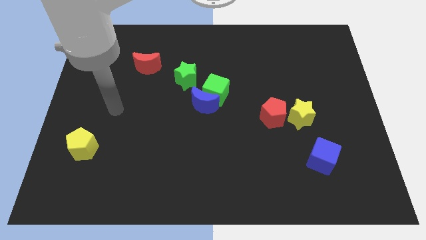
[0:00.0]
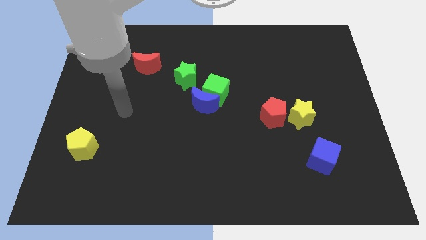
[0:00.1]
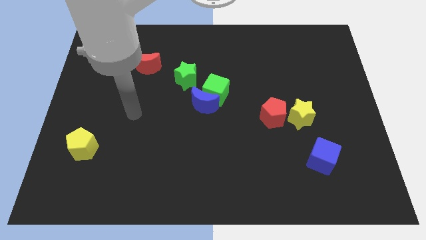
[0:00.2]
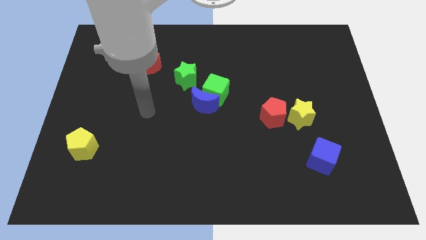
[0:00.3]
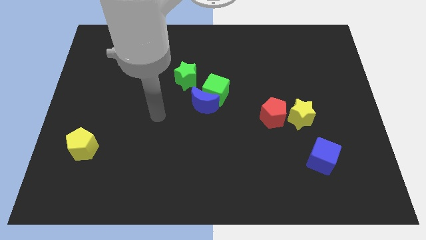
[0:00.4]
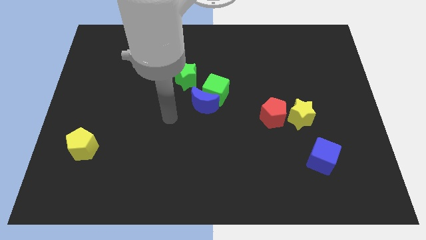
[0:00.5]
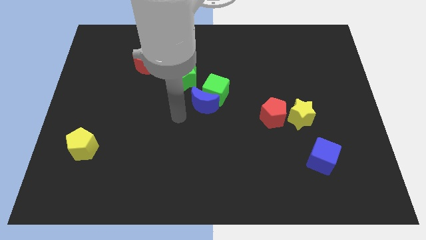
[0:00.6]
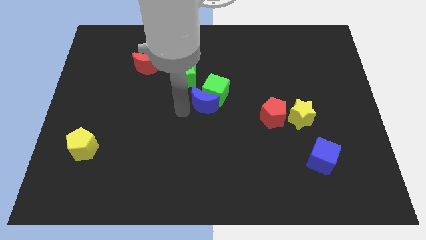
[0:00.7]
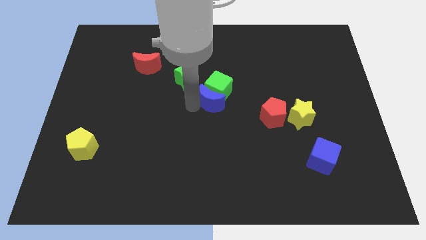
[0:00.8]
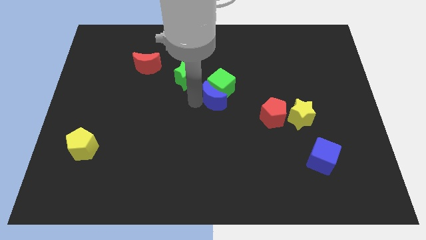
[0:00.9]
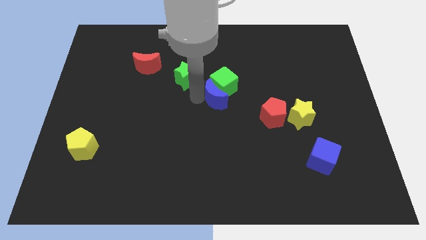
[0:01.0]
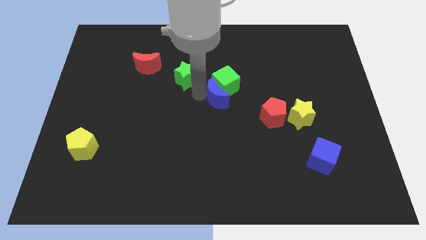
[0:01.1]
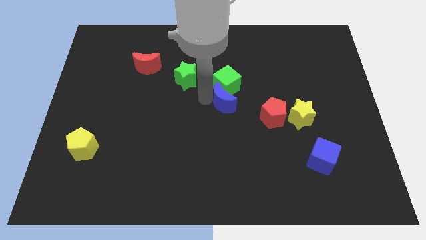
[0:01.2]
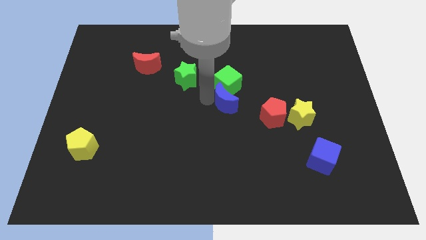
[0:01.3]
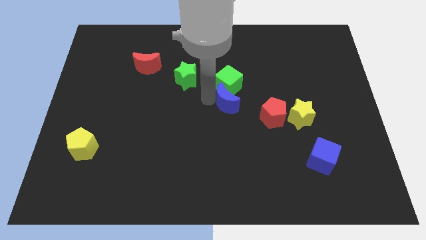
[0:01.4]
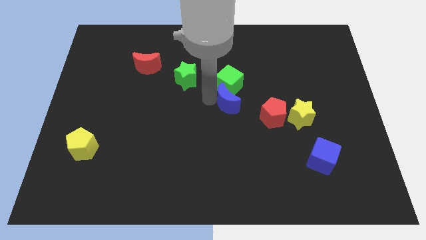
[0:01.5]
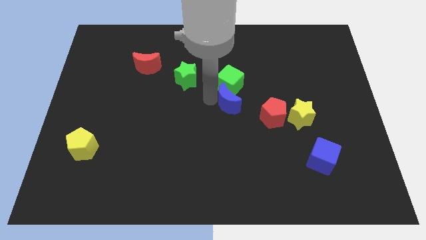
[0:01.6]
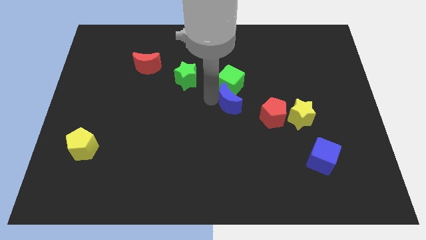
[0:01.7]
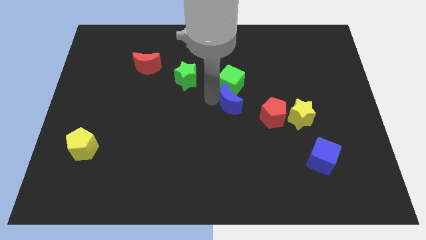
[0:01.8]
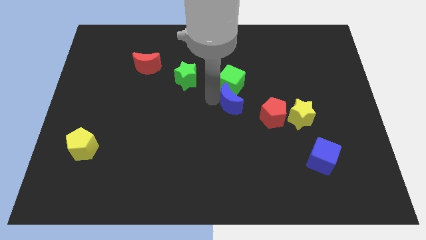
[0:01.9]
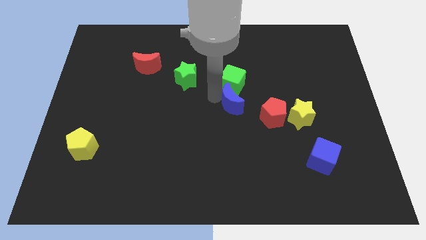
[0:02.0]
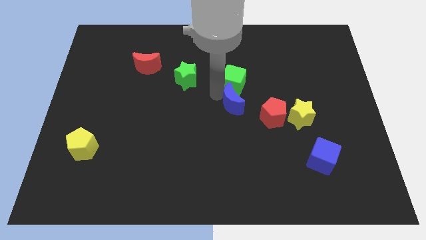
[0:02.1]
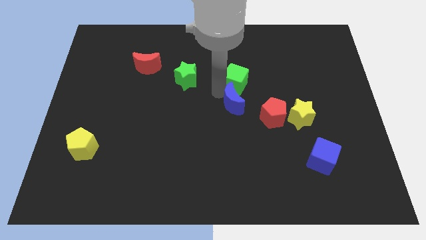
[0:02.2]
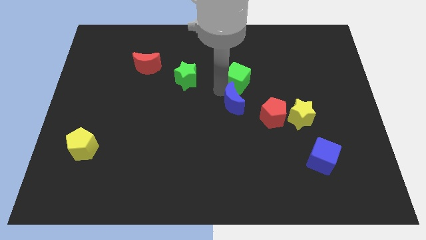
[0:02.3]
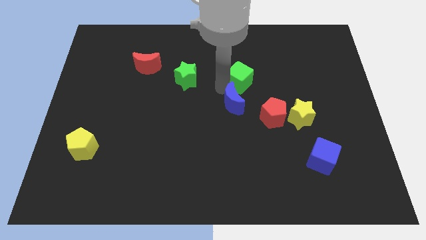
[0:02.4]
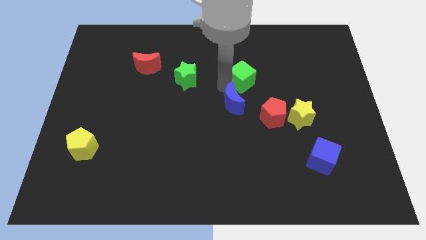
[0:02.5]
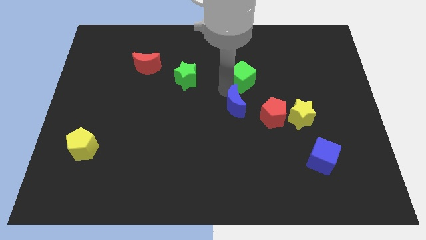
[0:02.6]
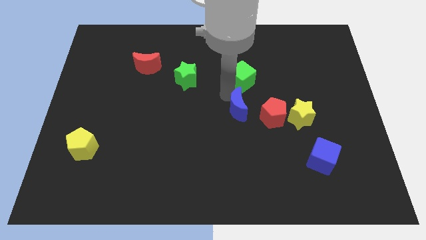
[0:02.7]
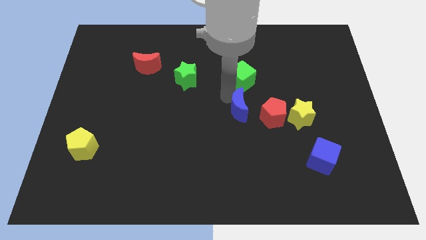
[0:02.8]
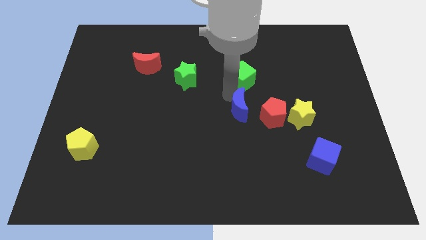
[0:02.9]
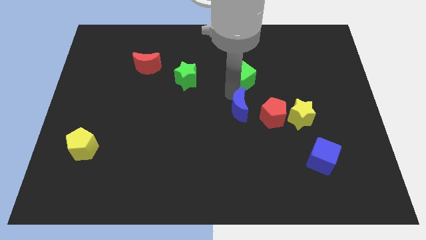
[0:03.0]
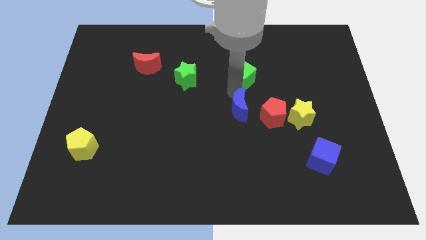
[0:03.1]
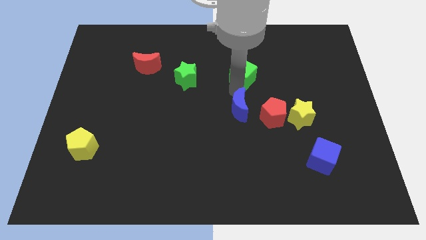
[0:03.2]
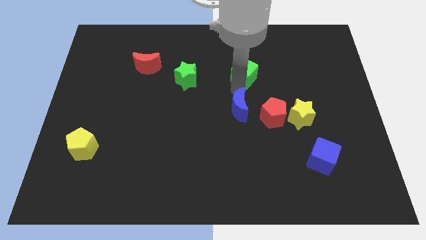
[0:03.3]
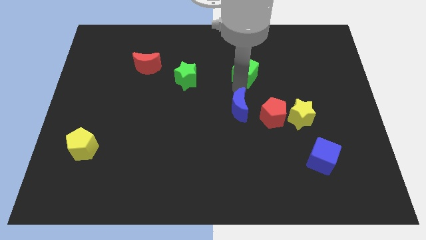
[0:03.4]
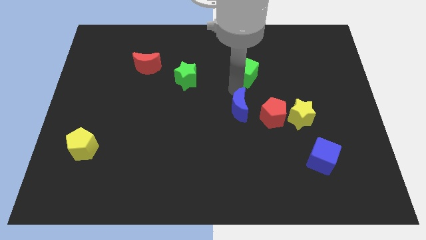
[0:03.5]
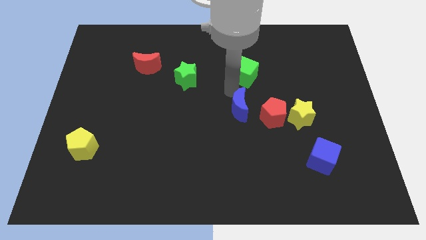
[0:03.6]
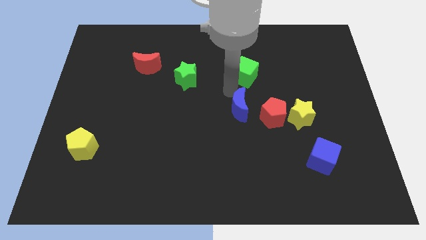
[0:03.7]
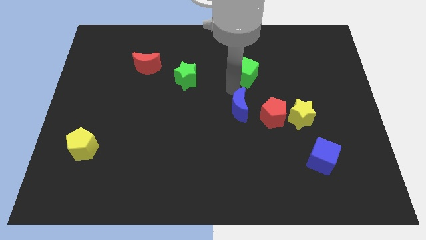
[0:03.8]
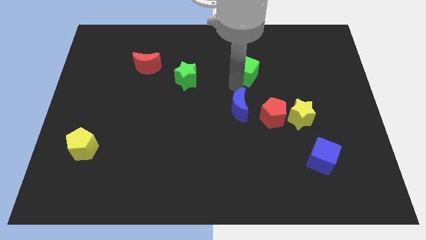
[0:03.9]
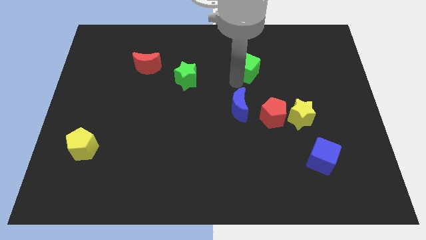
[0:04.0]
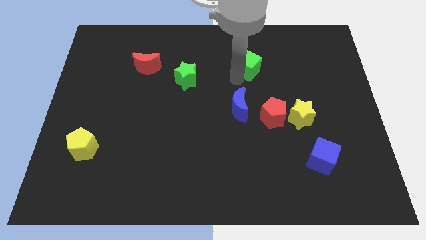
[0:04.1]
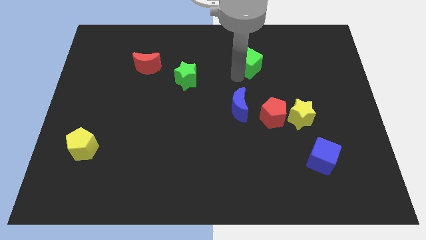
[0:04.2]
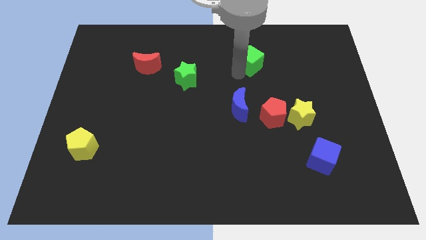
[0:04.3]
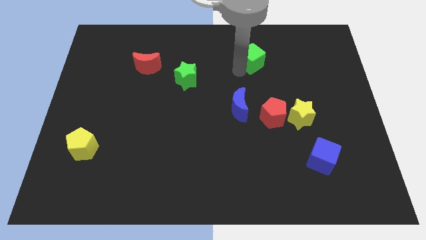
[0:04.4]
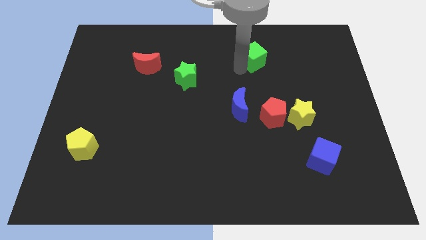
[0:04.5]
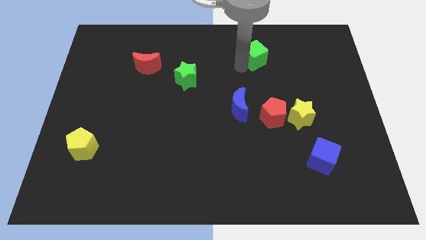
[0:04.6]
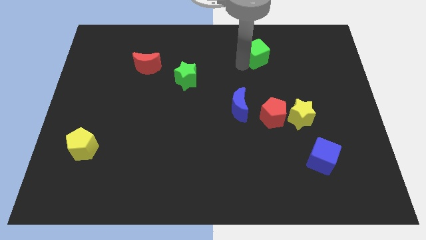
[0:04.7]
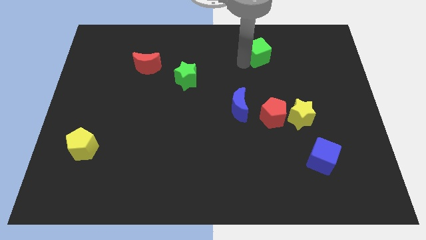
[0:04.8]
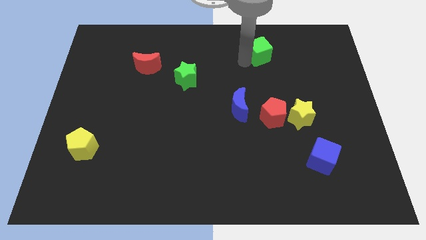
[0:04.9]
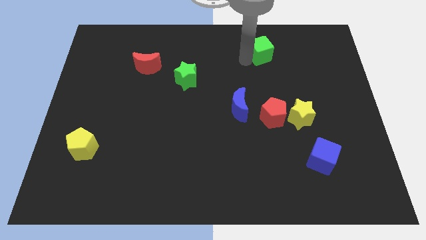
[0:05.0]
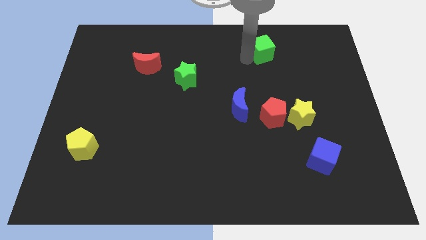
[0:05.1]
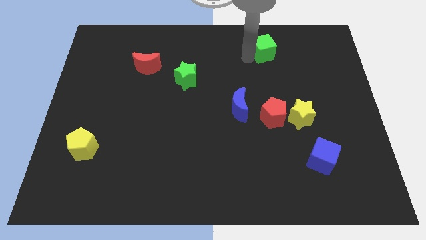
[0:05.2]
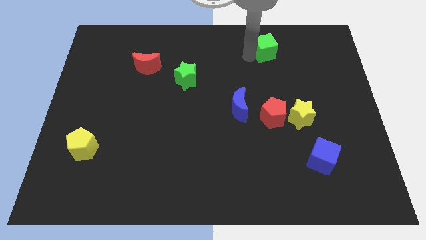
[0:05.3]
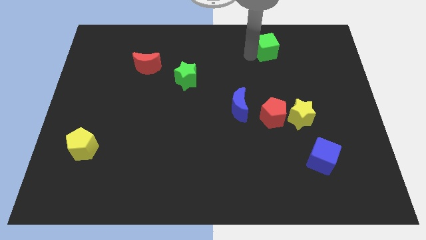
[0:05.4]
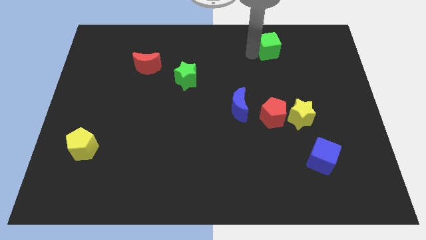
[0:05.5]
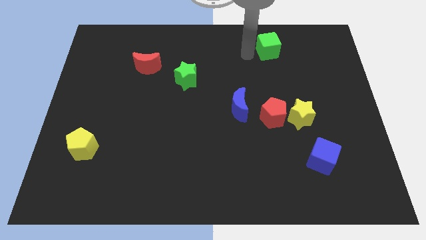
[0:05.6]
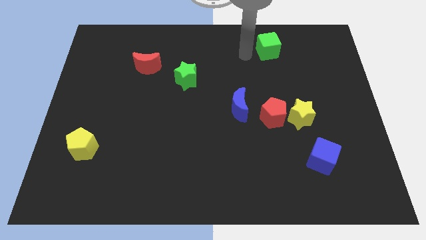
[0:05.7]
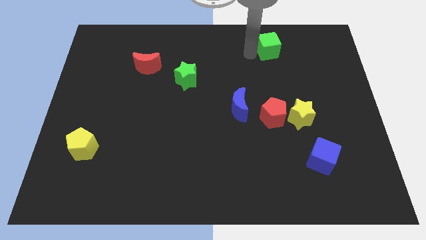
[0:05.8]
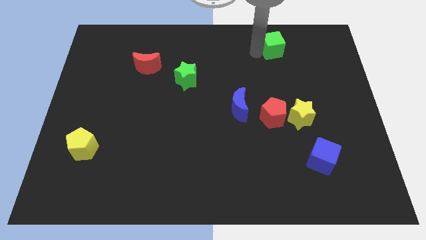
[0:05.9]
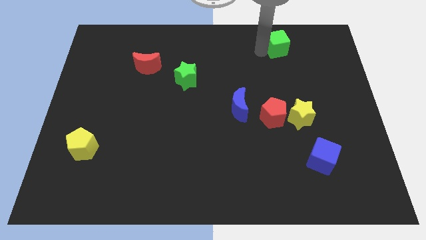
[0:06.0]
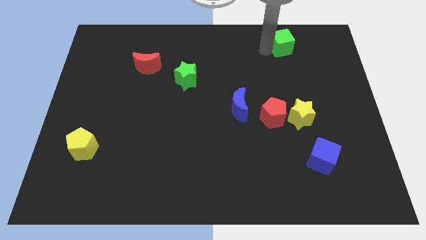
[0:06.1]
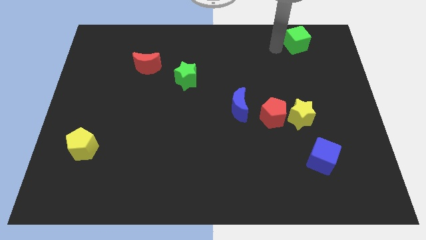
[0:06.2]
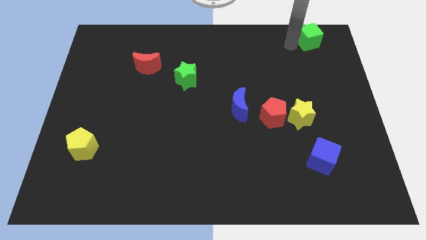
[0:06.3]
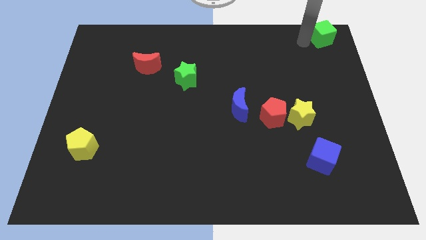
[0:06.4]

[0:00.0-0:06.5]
push the green cube to the top right corner
